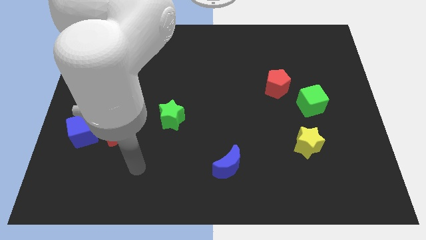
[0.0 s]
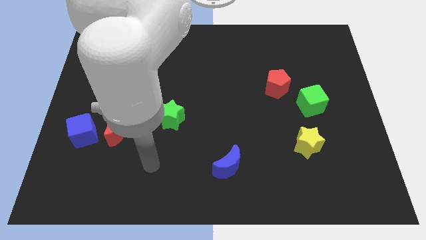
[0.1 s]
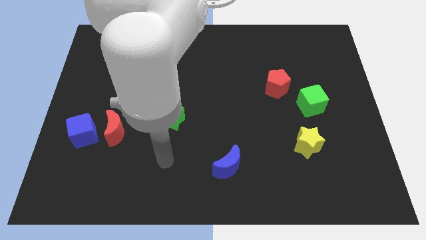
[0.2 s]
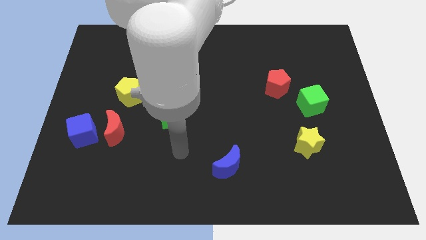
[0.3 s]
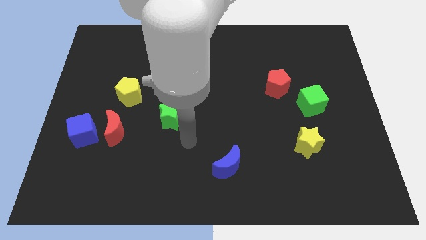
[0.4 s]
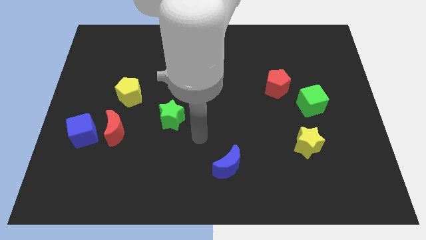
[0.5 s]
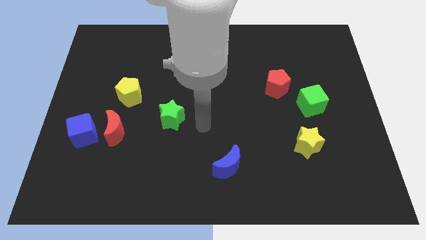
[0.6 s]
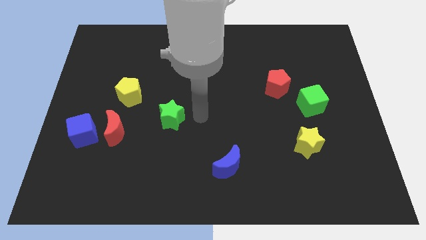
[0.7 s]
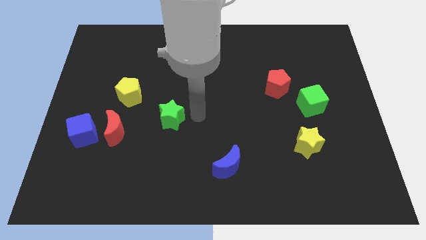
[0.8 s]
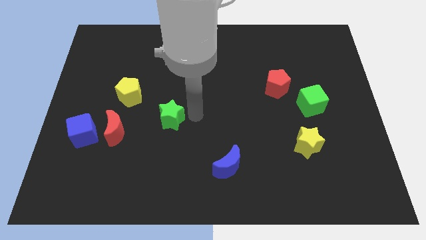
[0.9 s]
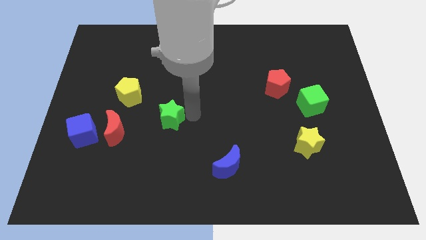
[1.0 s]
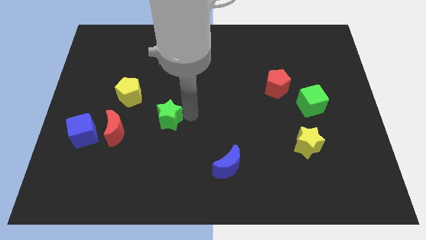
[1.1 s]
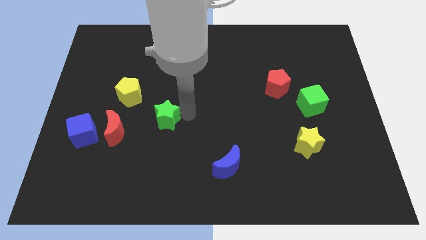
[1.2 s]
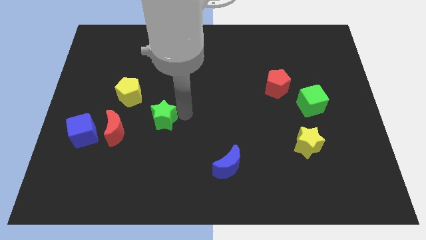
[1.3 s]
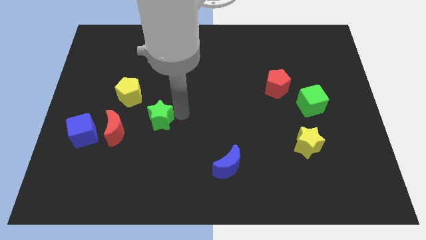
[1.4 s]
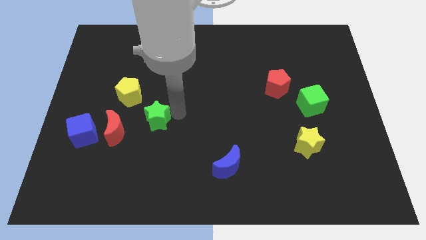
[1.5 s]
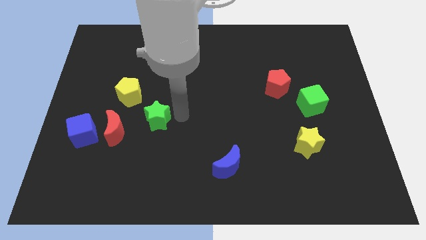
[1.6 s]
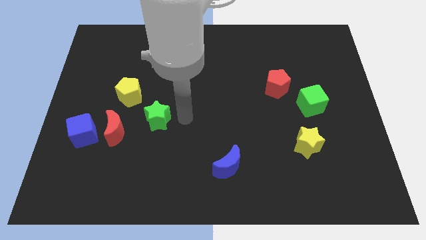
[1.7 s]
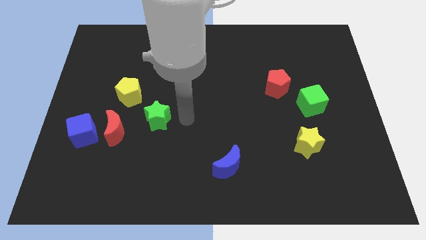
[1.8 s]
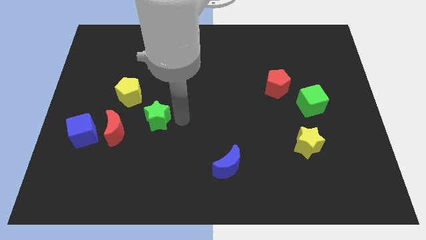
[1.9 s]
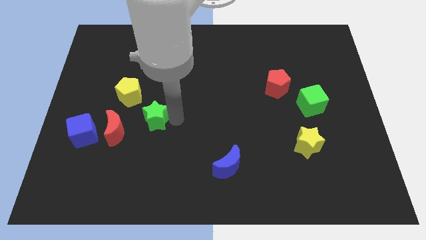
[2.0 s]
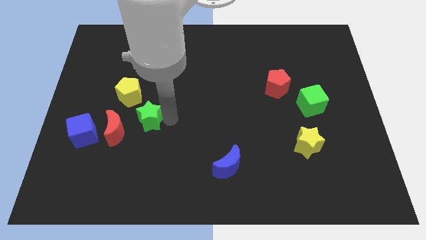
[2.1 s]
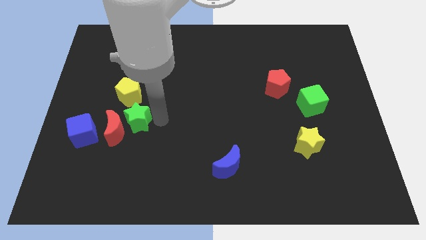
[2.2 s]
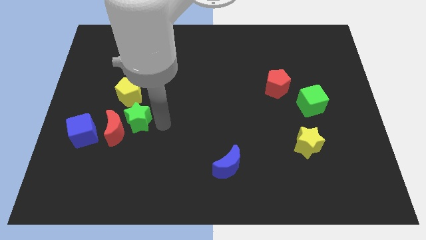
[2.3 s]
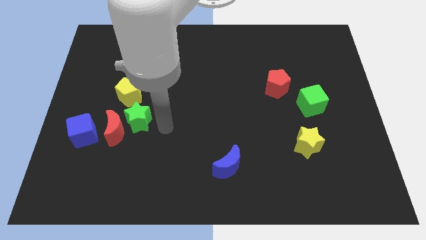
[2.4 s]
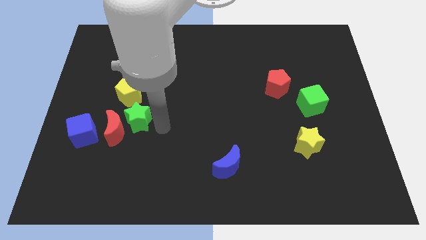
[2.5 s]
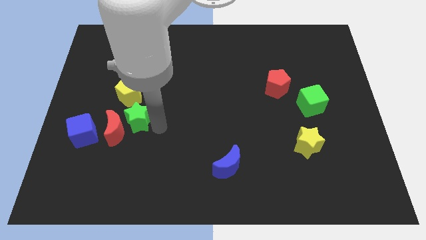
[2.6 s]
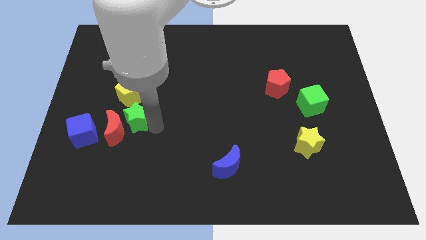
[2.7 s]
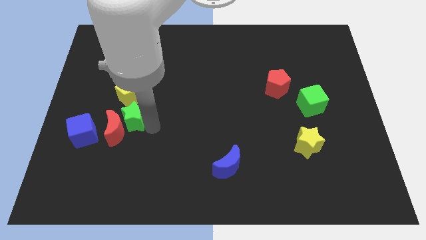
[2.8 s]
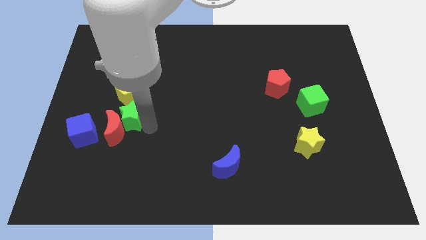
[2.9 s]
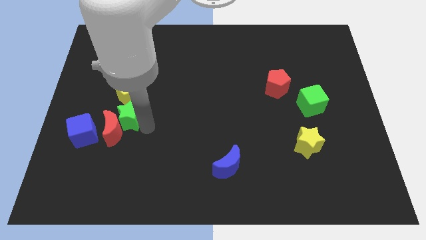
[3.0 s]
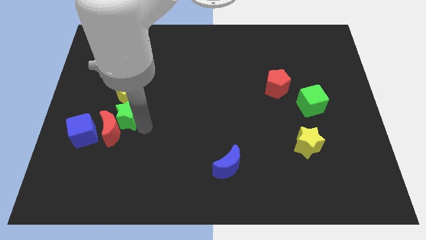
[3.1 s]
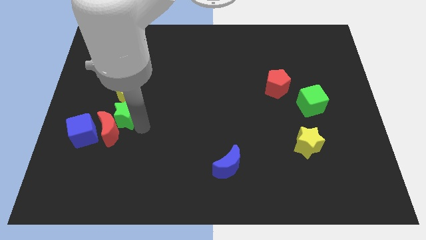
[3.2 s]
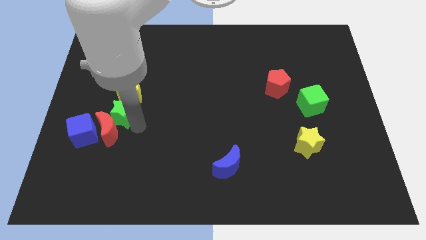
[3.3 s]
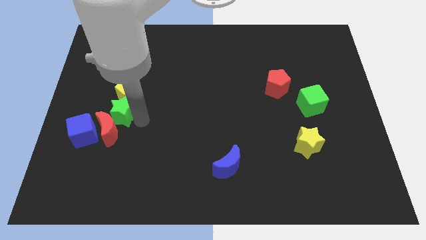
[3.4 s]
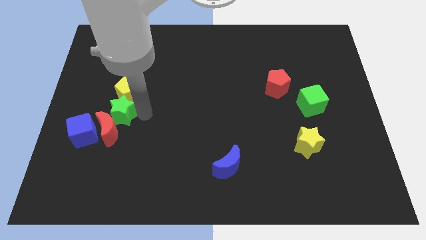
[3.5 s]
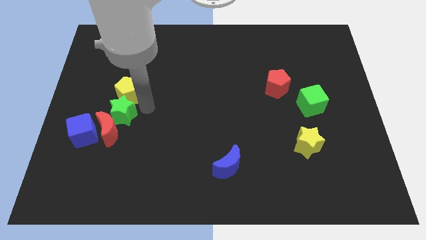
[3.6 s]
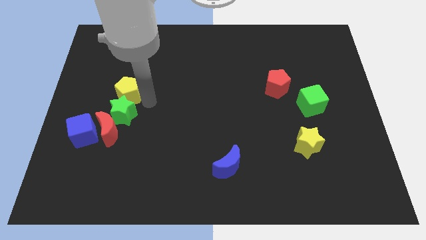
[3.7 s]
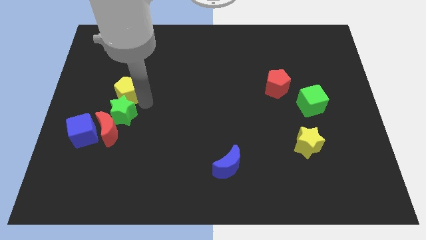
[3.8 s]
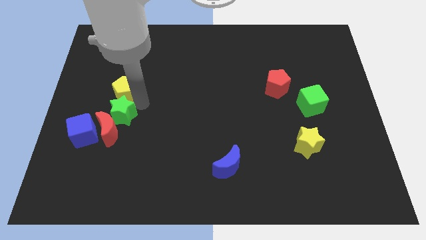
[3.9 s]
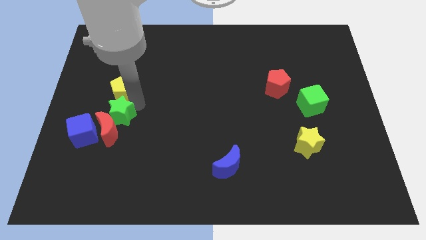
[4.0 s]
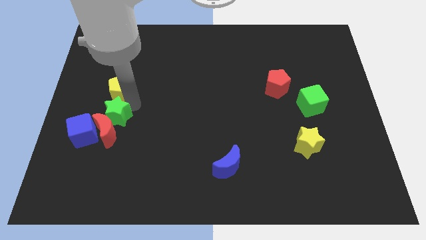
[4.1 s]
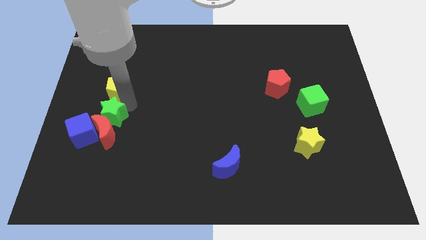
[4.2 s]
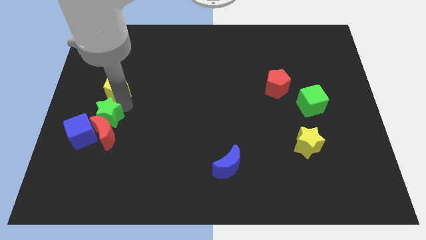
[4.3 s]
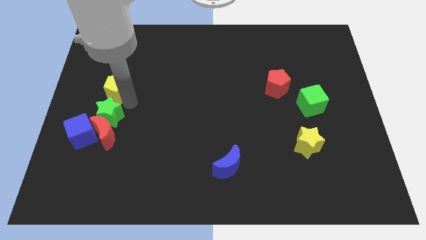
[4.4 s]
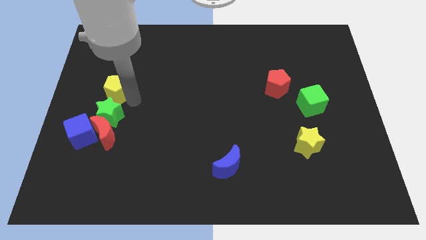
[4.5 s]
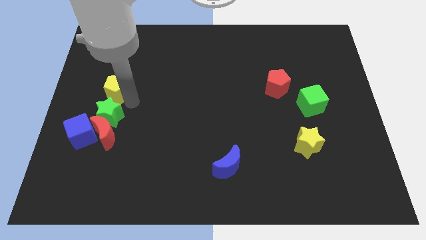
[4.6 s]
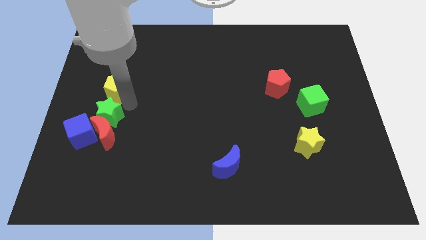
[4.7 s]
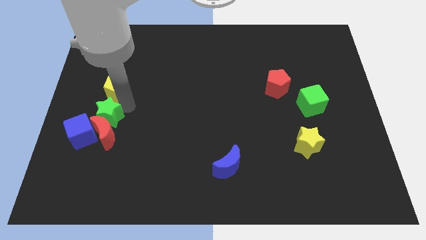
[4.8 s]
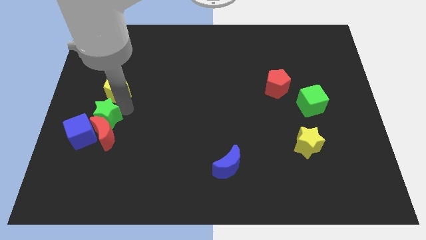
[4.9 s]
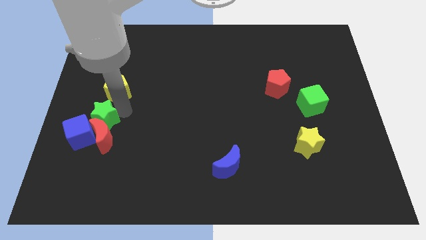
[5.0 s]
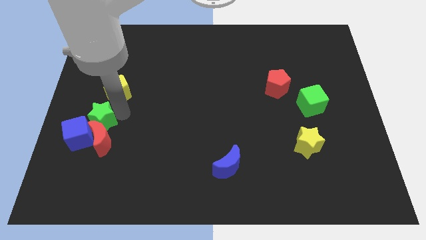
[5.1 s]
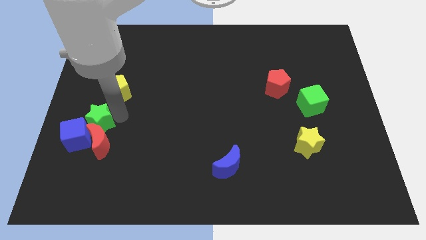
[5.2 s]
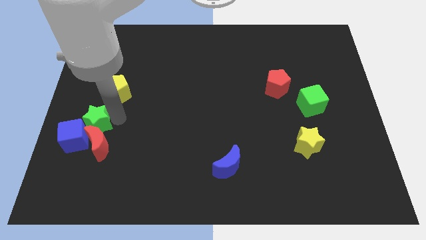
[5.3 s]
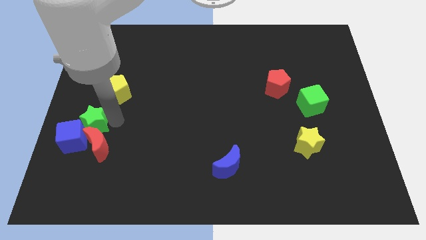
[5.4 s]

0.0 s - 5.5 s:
put the green star towards the blue cube

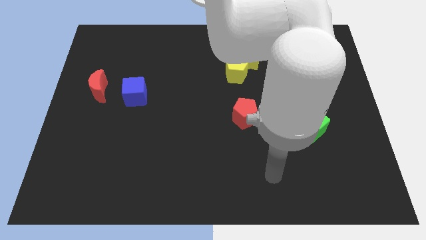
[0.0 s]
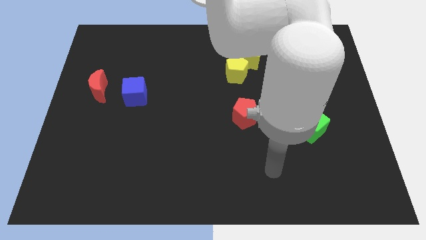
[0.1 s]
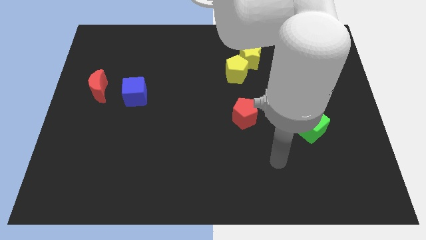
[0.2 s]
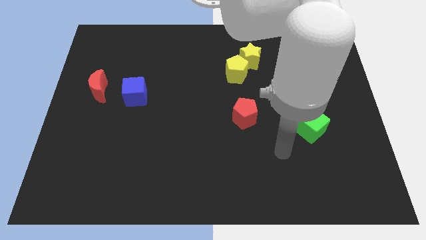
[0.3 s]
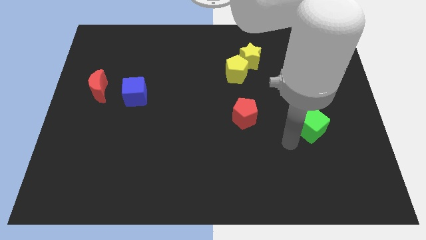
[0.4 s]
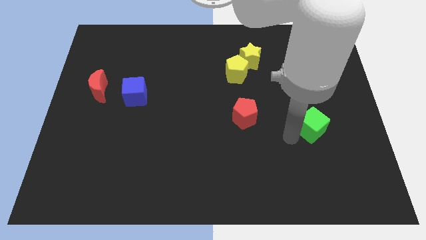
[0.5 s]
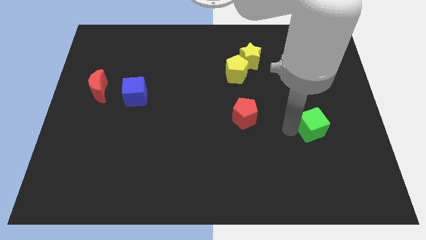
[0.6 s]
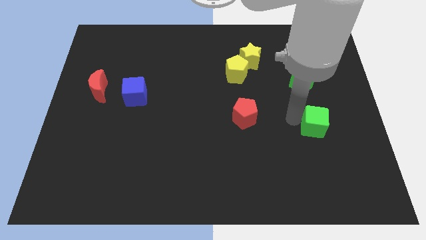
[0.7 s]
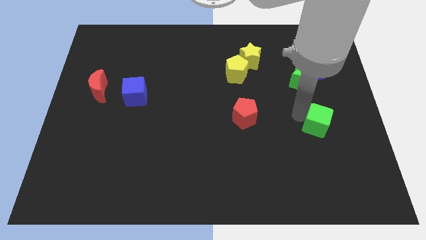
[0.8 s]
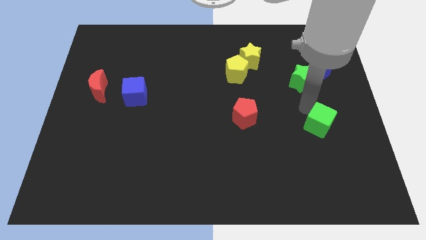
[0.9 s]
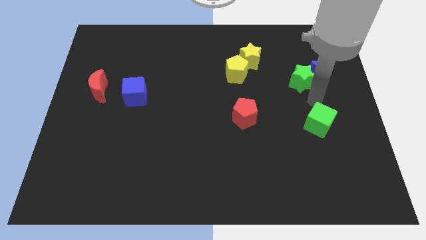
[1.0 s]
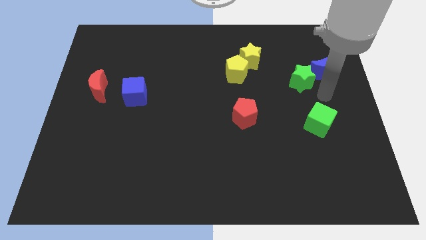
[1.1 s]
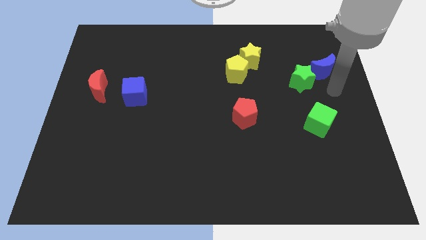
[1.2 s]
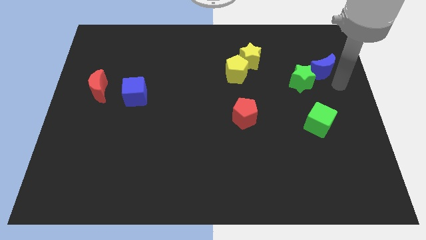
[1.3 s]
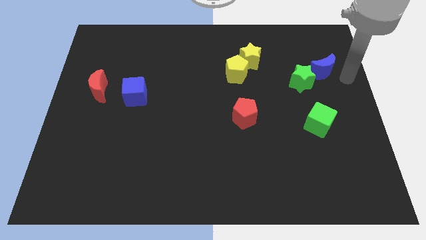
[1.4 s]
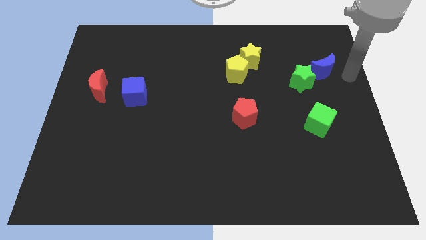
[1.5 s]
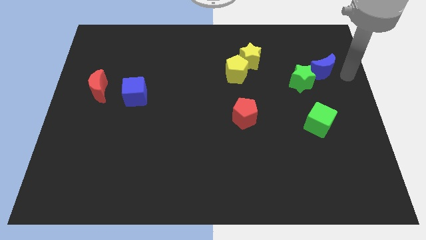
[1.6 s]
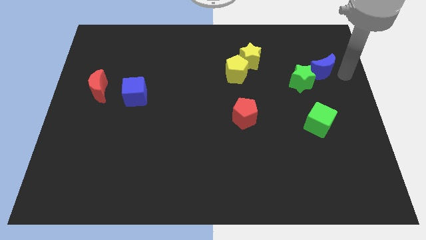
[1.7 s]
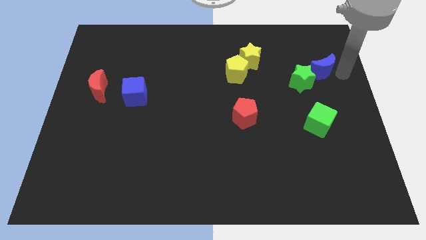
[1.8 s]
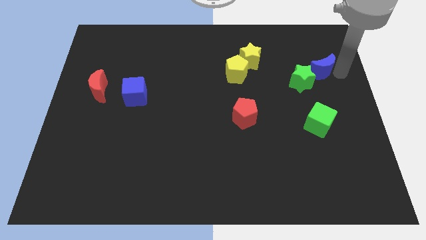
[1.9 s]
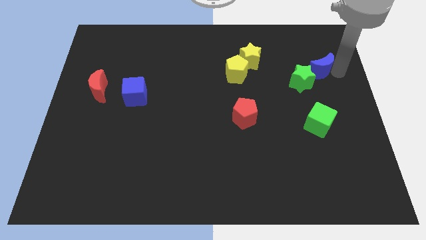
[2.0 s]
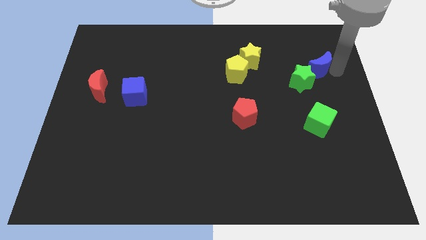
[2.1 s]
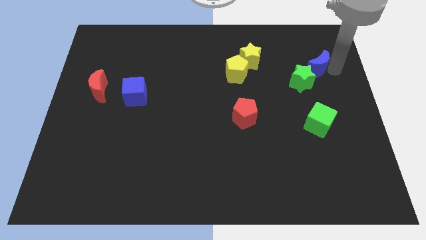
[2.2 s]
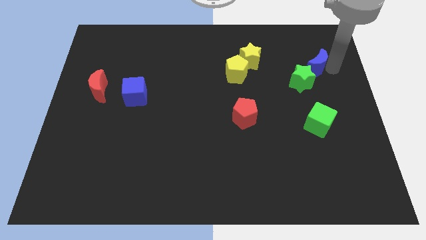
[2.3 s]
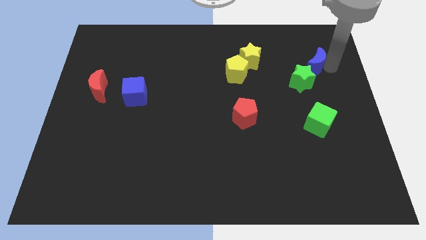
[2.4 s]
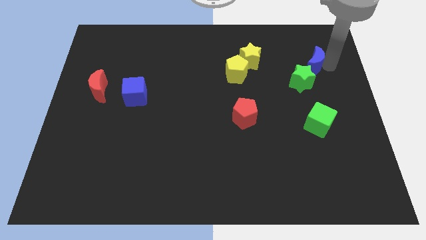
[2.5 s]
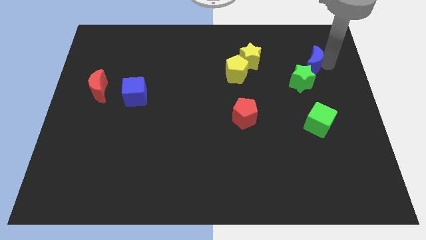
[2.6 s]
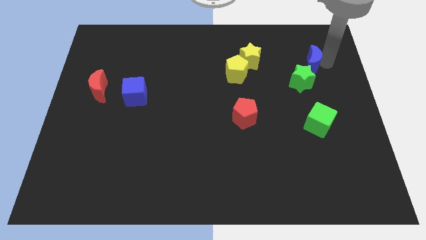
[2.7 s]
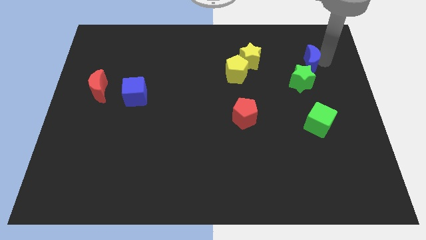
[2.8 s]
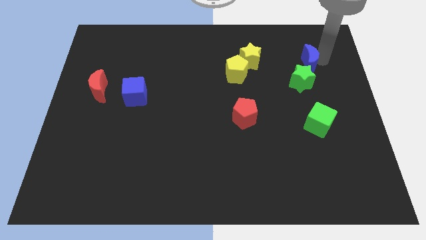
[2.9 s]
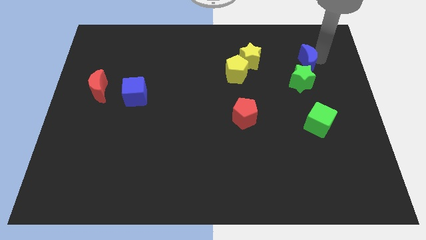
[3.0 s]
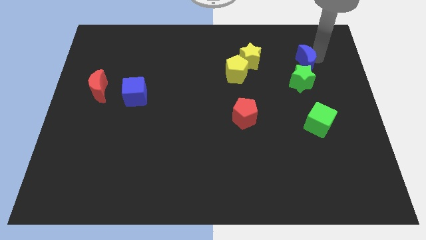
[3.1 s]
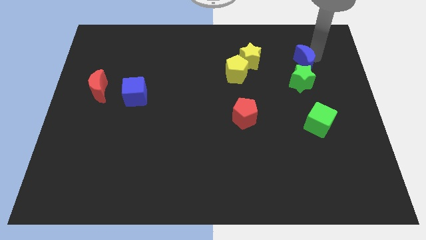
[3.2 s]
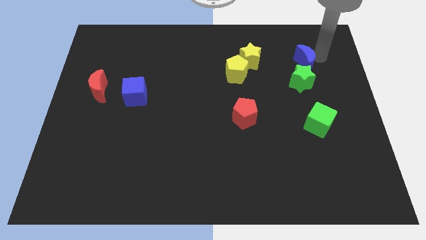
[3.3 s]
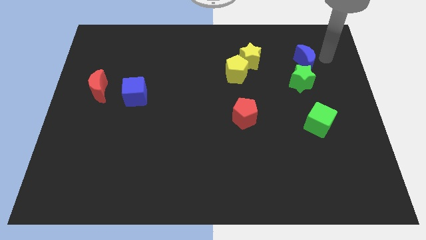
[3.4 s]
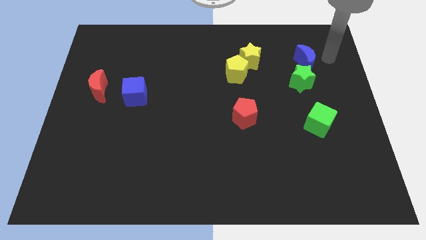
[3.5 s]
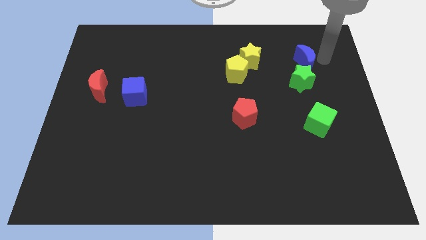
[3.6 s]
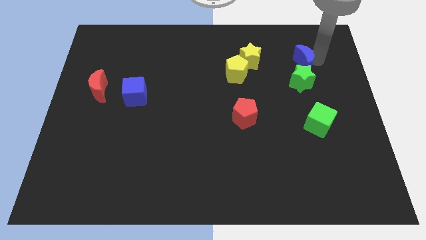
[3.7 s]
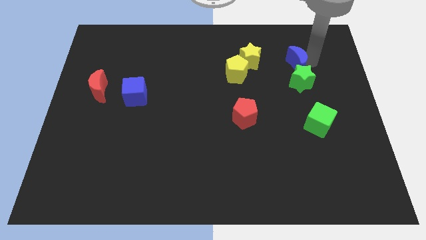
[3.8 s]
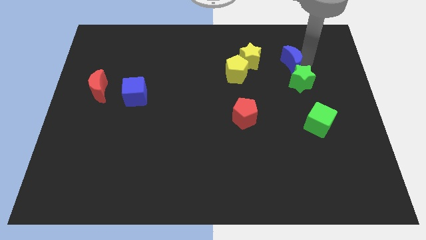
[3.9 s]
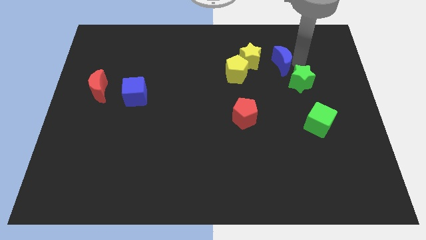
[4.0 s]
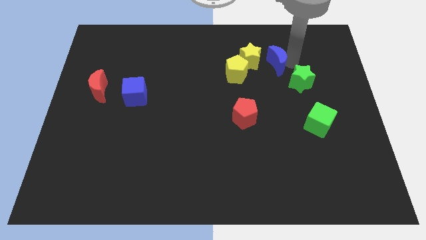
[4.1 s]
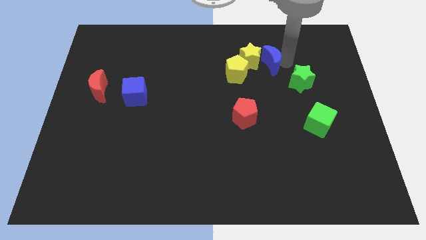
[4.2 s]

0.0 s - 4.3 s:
move the blue moon next to the yellow star
